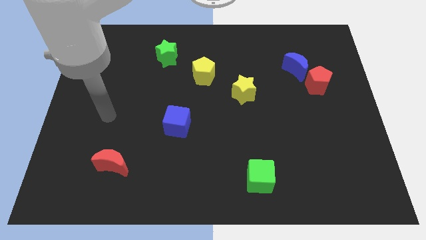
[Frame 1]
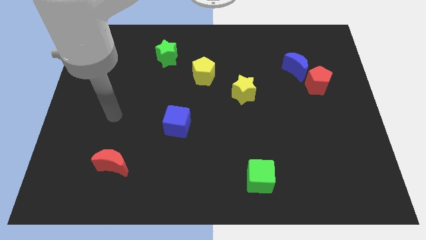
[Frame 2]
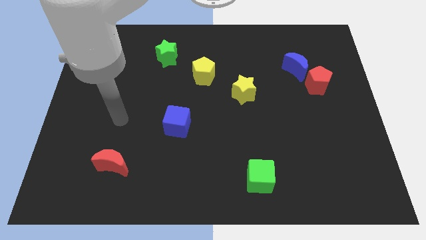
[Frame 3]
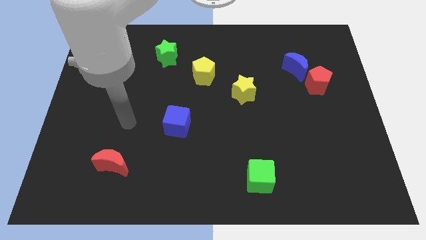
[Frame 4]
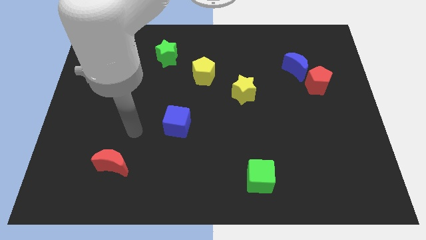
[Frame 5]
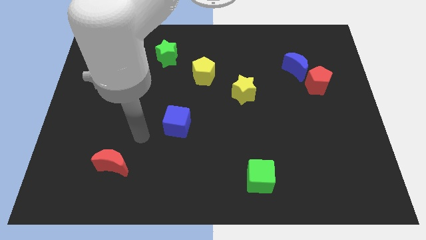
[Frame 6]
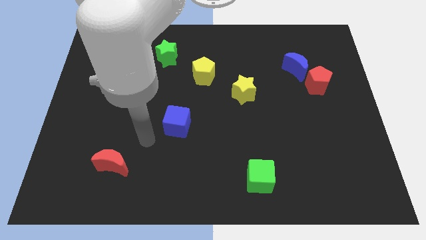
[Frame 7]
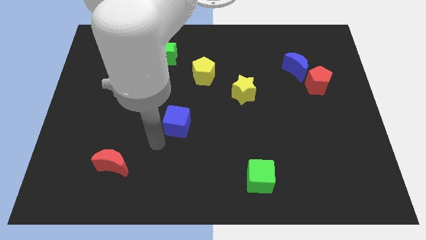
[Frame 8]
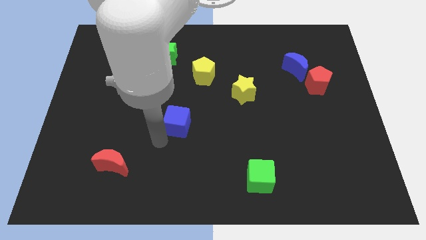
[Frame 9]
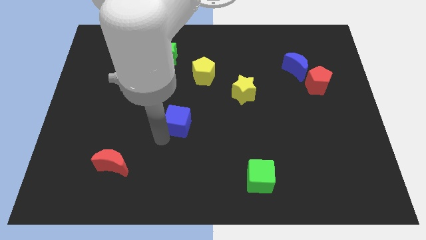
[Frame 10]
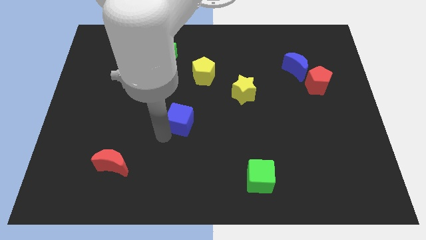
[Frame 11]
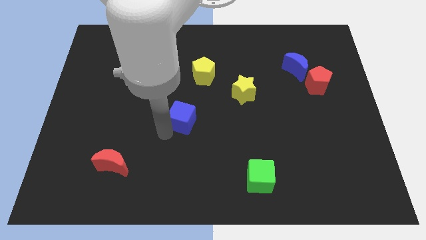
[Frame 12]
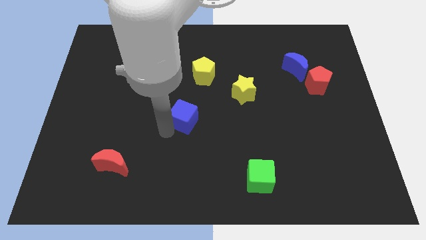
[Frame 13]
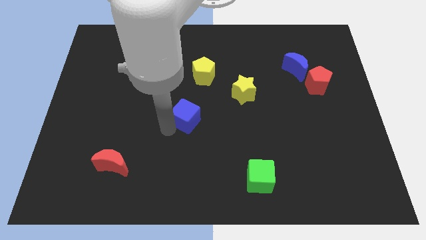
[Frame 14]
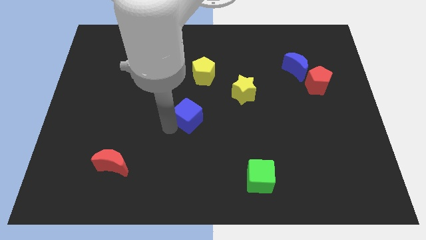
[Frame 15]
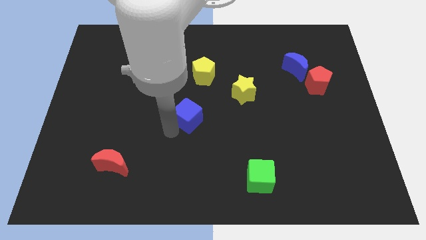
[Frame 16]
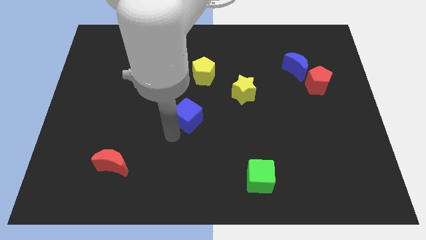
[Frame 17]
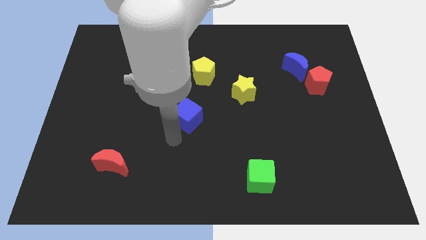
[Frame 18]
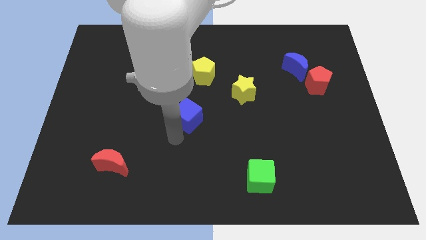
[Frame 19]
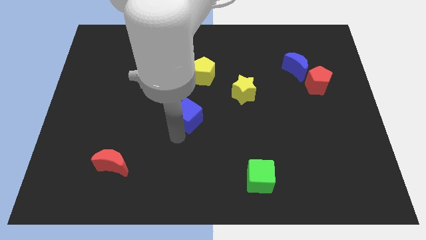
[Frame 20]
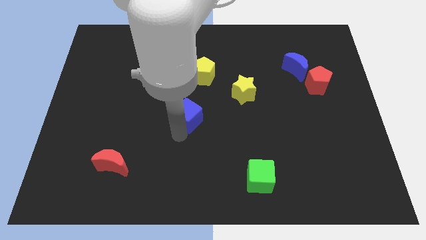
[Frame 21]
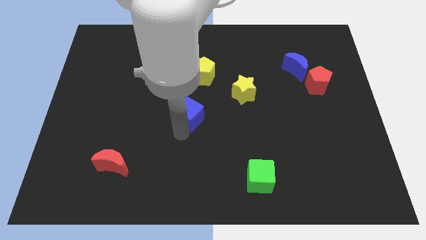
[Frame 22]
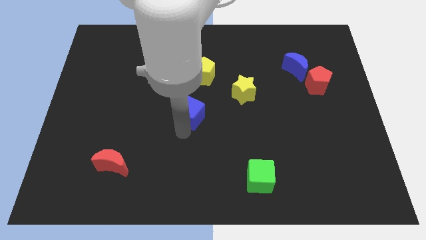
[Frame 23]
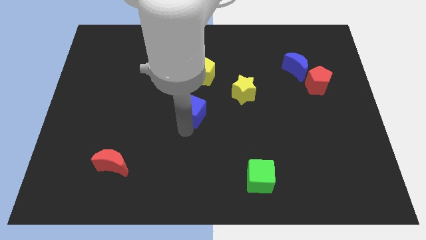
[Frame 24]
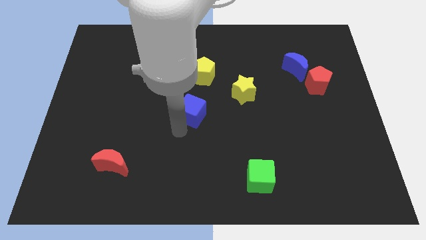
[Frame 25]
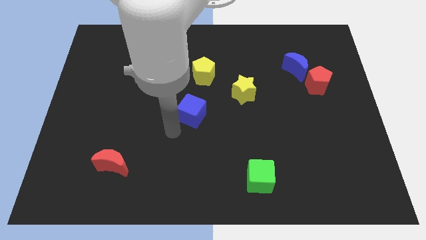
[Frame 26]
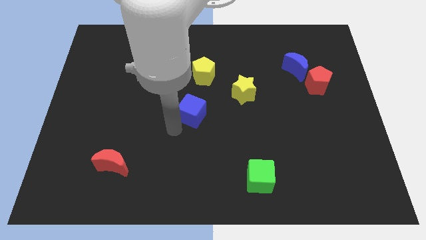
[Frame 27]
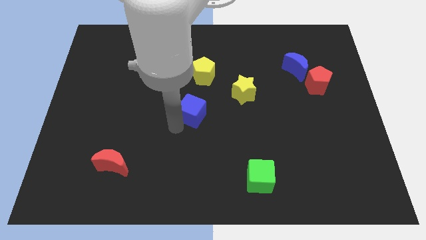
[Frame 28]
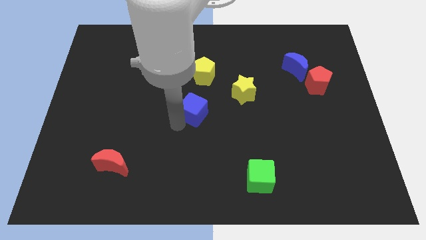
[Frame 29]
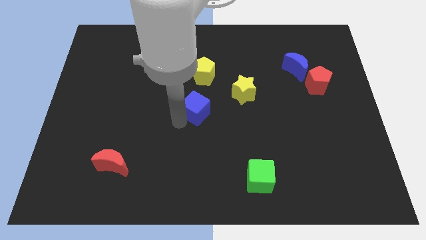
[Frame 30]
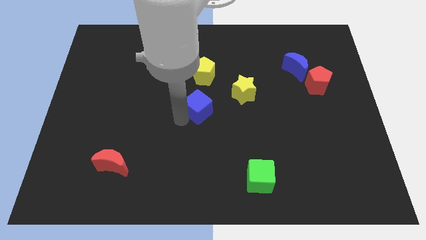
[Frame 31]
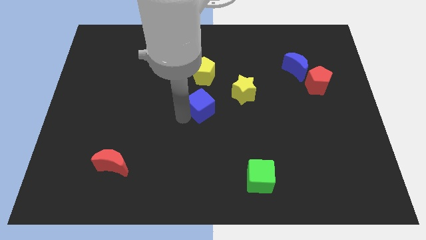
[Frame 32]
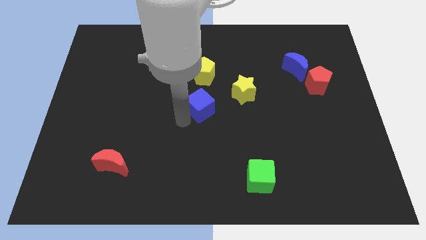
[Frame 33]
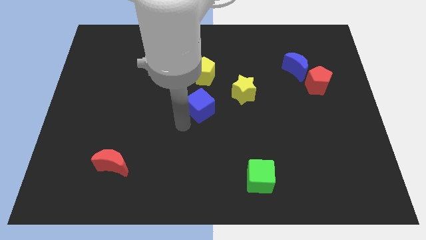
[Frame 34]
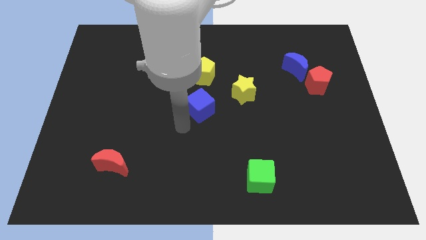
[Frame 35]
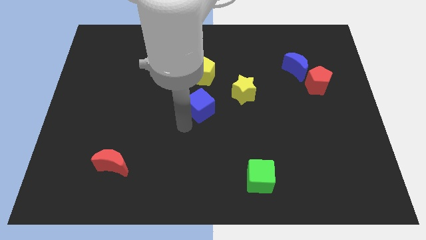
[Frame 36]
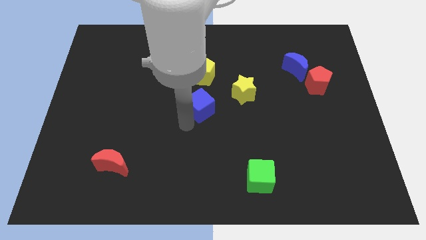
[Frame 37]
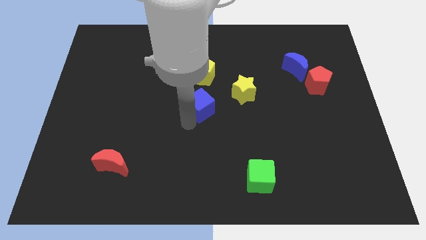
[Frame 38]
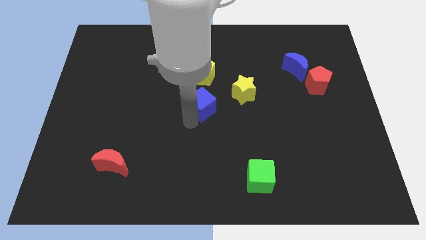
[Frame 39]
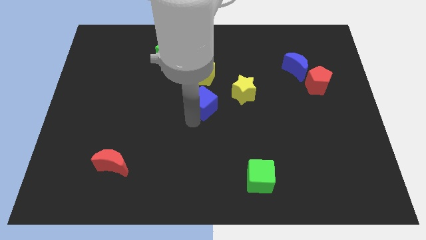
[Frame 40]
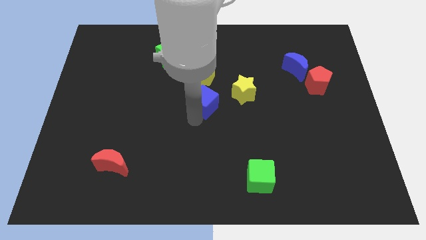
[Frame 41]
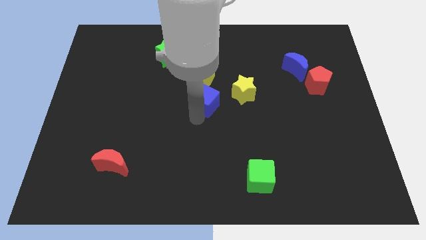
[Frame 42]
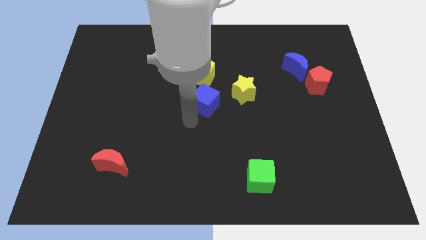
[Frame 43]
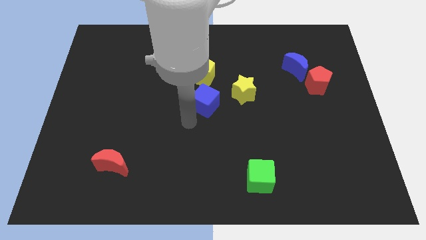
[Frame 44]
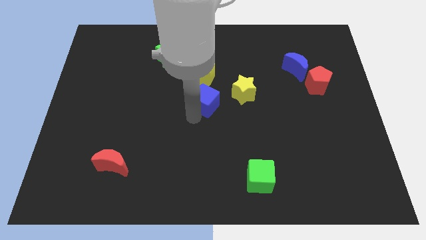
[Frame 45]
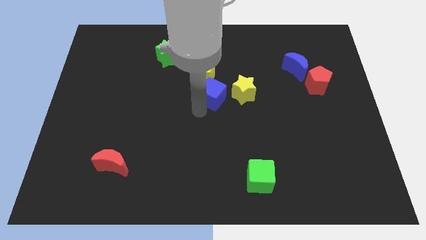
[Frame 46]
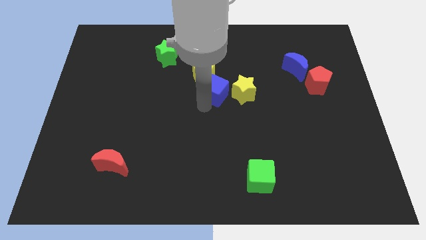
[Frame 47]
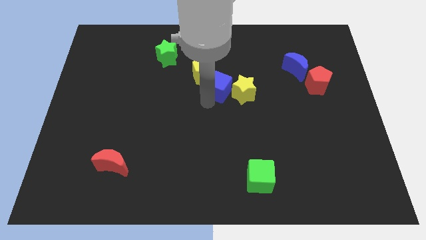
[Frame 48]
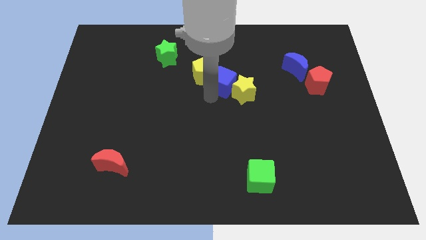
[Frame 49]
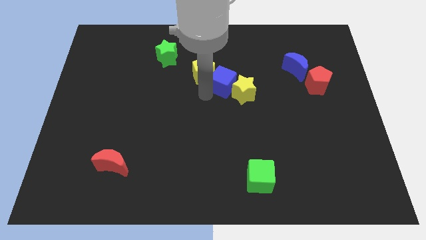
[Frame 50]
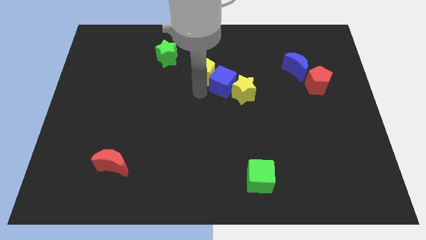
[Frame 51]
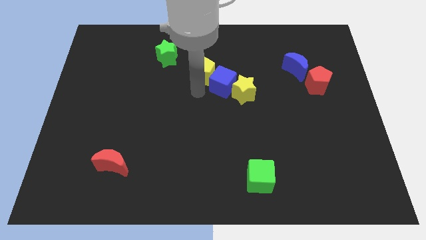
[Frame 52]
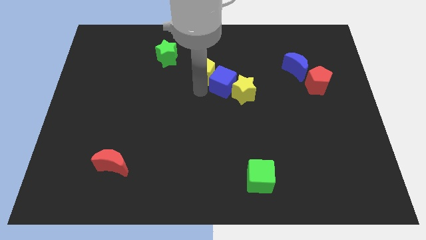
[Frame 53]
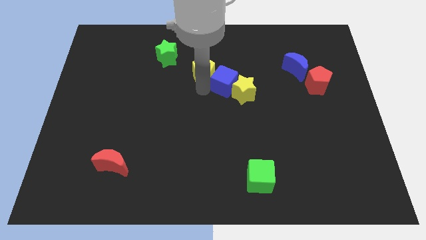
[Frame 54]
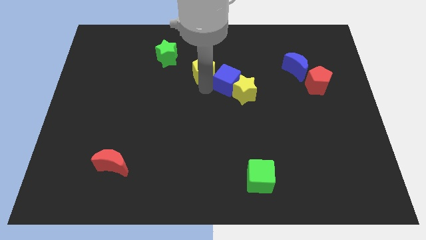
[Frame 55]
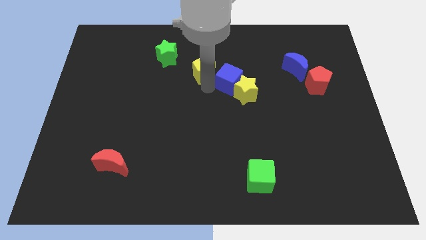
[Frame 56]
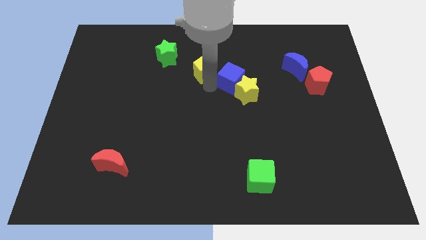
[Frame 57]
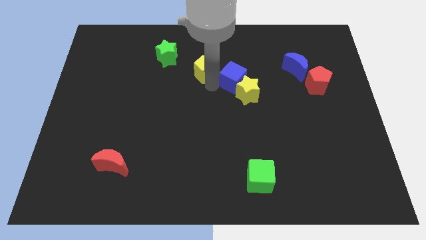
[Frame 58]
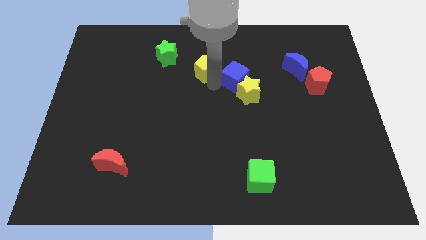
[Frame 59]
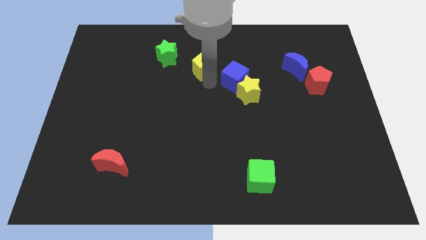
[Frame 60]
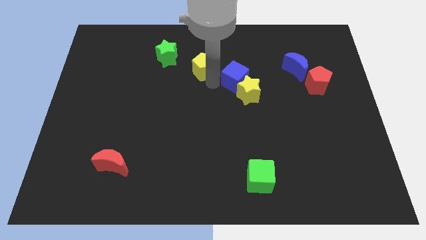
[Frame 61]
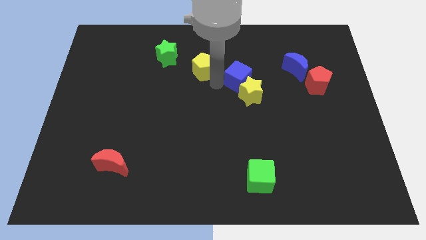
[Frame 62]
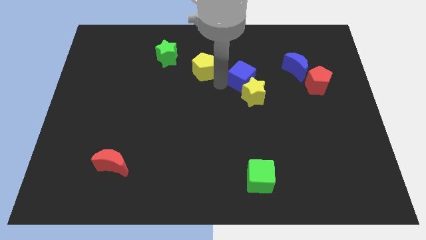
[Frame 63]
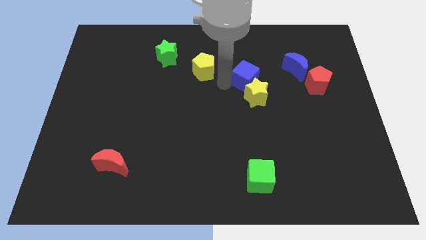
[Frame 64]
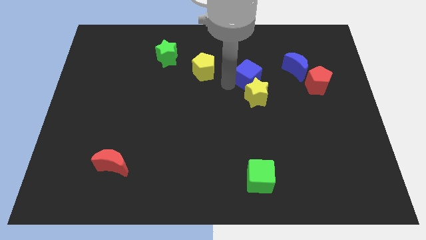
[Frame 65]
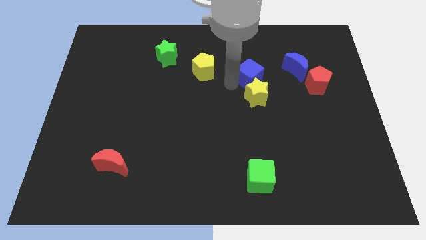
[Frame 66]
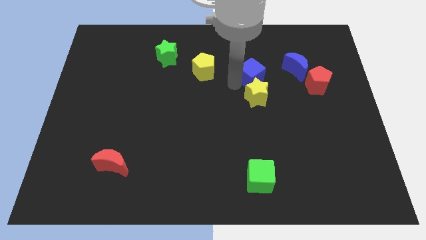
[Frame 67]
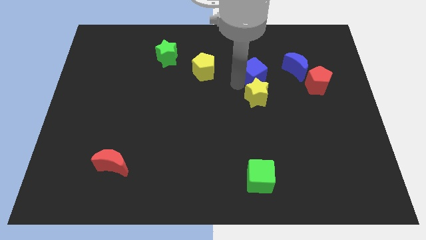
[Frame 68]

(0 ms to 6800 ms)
push the blue cube to the top right side of the yellow star
